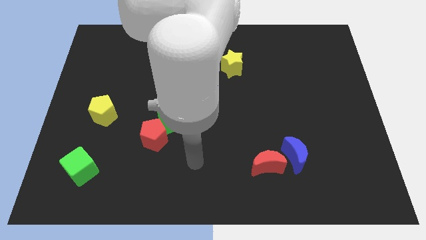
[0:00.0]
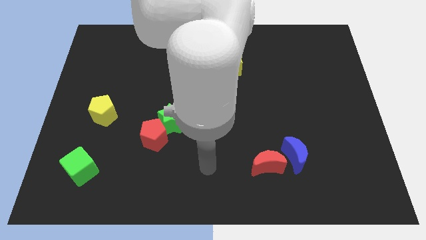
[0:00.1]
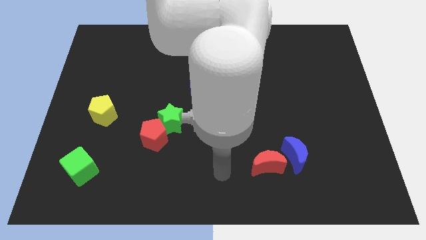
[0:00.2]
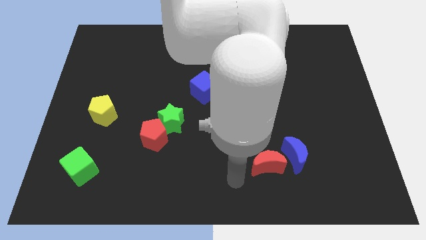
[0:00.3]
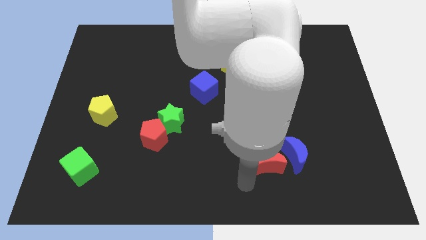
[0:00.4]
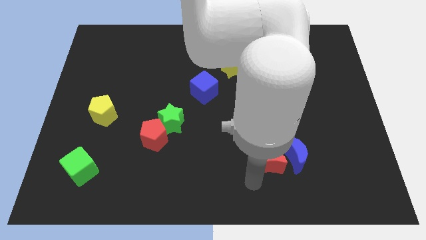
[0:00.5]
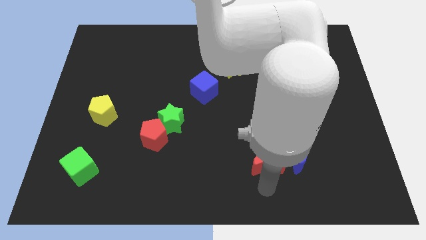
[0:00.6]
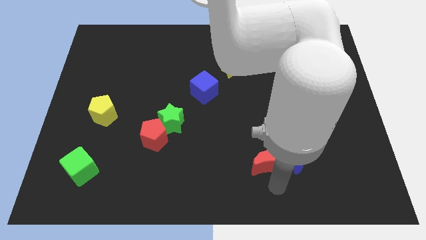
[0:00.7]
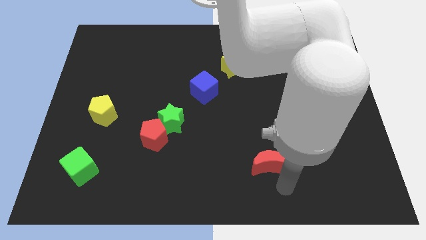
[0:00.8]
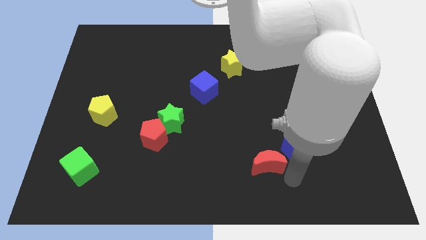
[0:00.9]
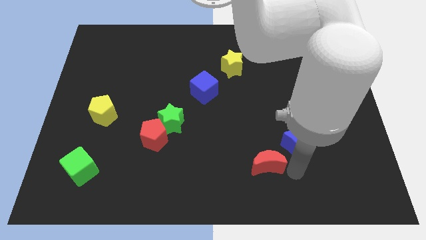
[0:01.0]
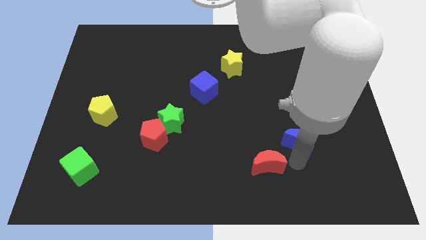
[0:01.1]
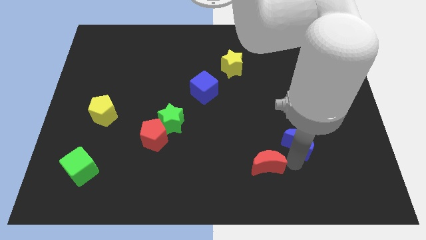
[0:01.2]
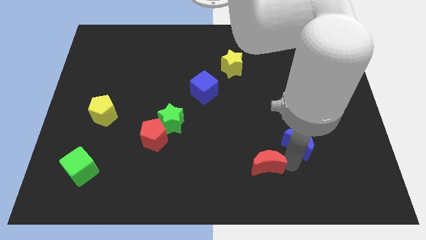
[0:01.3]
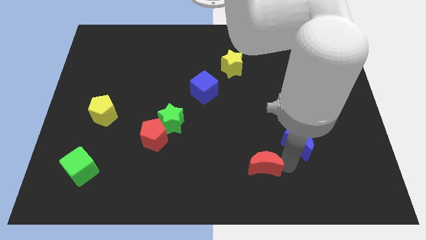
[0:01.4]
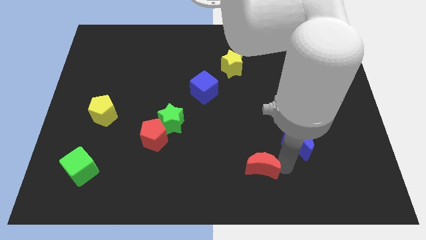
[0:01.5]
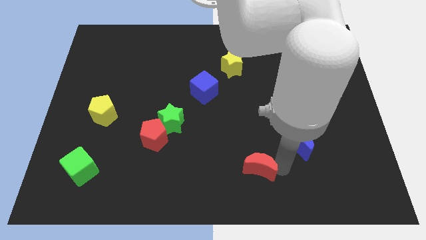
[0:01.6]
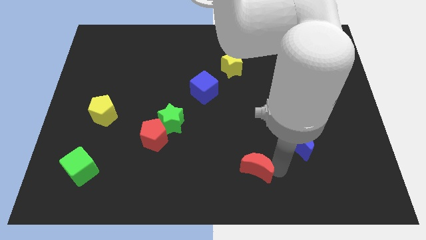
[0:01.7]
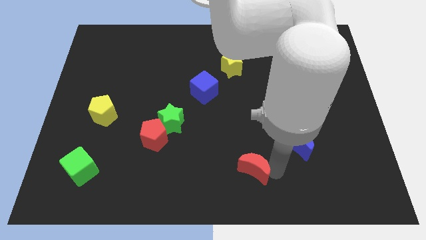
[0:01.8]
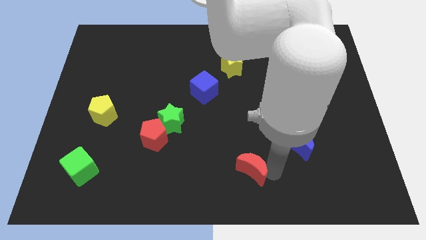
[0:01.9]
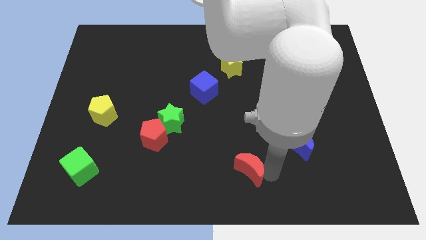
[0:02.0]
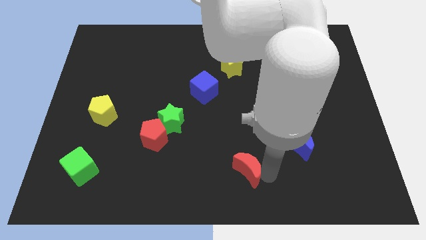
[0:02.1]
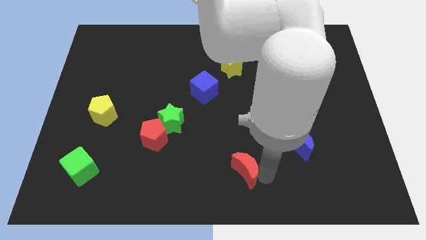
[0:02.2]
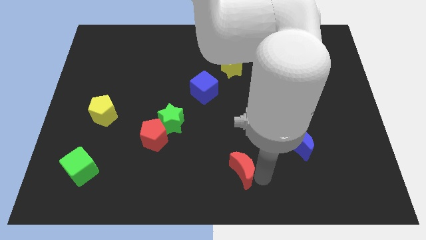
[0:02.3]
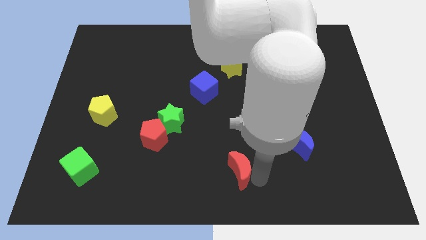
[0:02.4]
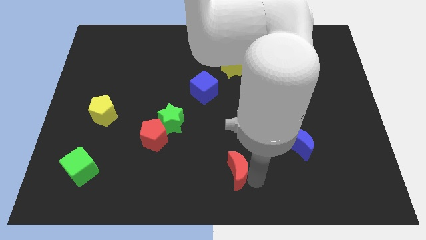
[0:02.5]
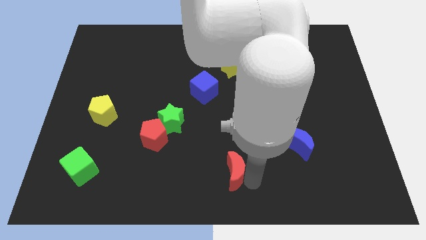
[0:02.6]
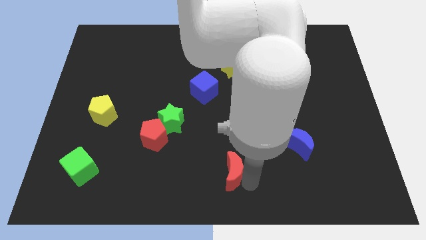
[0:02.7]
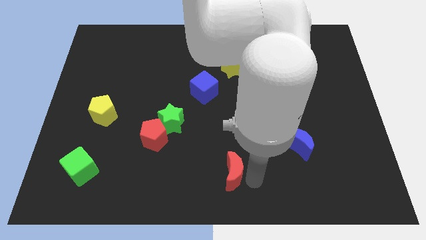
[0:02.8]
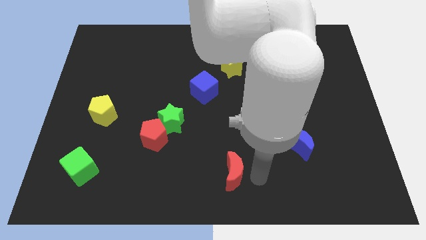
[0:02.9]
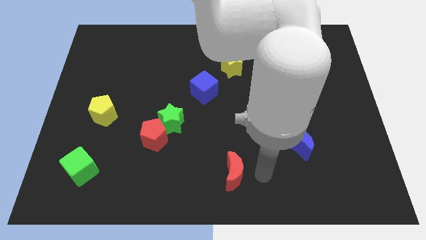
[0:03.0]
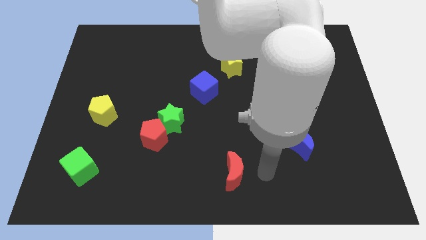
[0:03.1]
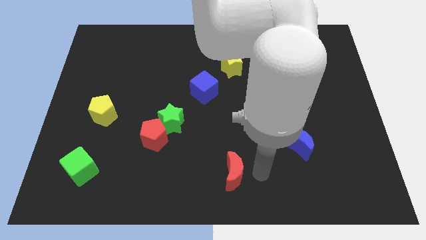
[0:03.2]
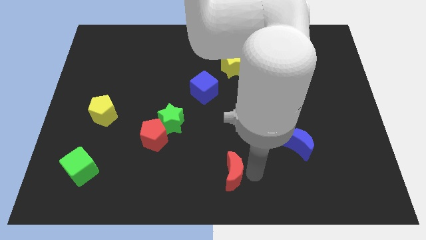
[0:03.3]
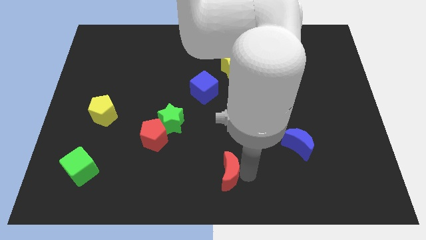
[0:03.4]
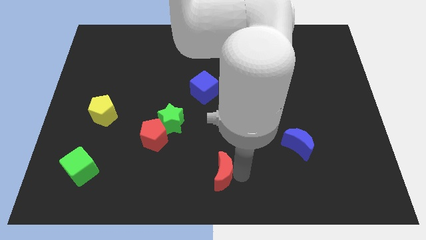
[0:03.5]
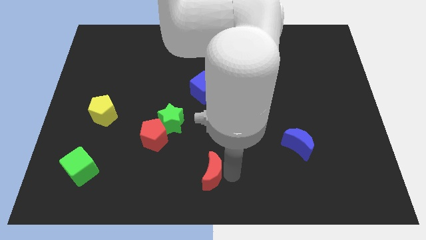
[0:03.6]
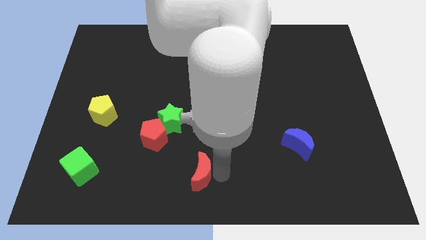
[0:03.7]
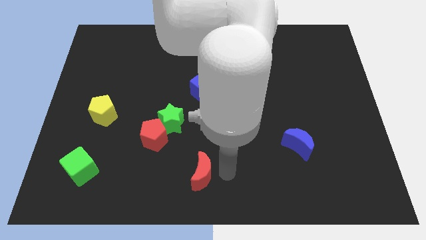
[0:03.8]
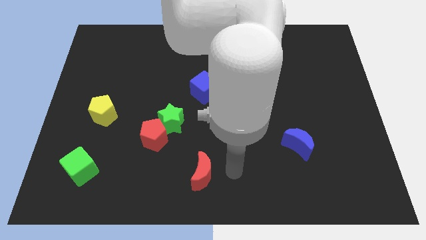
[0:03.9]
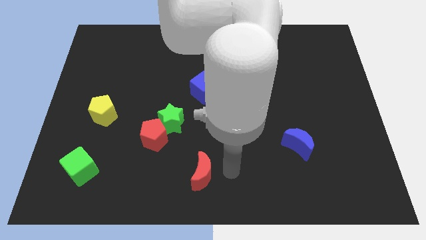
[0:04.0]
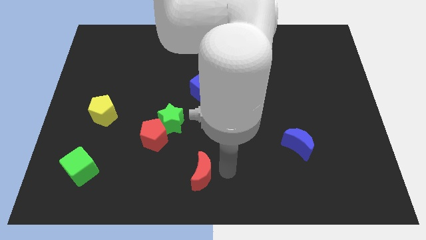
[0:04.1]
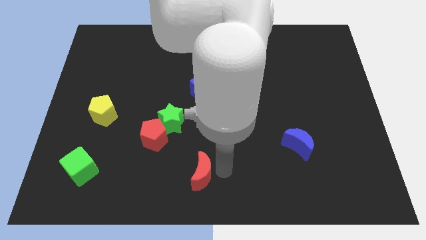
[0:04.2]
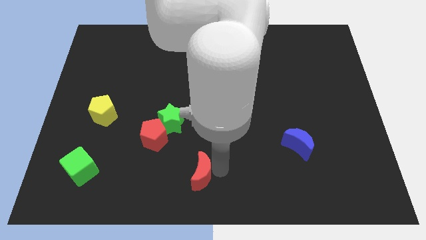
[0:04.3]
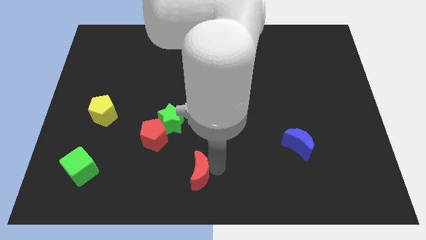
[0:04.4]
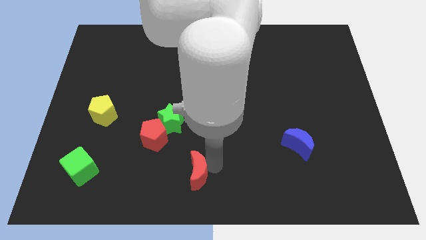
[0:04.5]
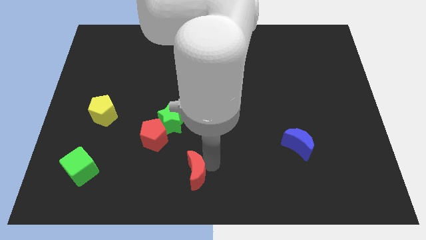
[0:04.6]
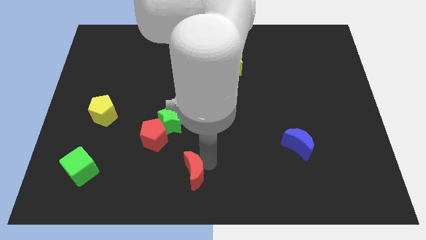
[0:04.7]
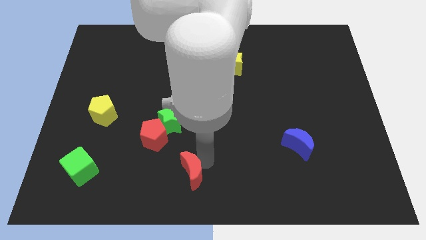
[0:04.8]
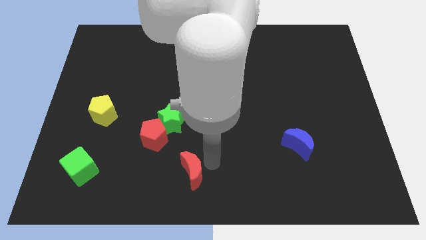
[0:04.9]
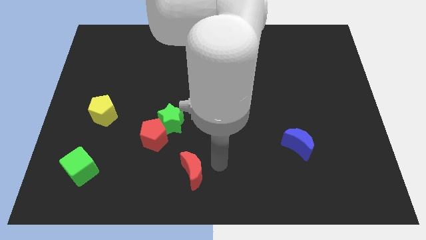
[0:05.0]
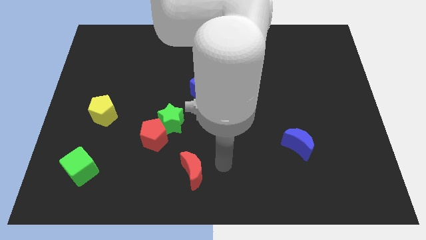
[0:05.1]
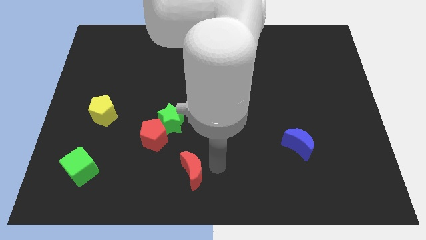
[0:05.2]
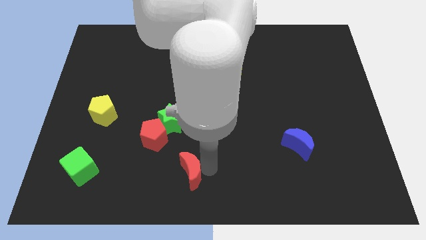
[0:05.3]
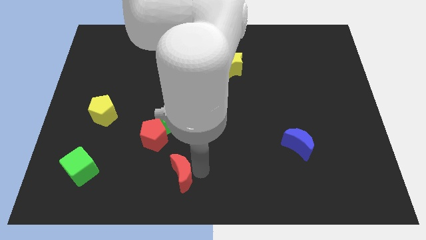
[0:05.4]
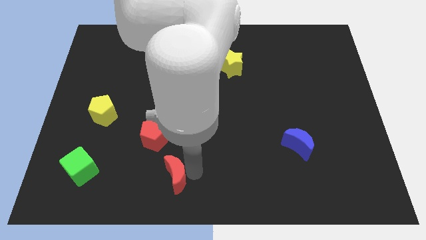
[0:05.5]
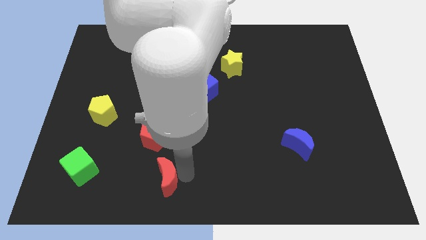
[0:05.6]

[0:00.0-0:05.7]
push the red moon to the bottom side of the red pentagon

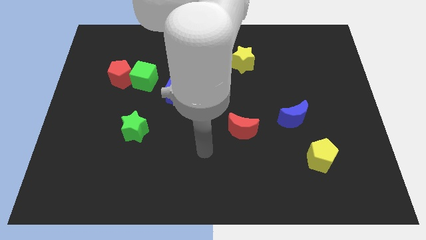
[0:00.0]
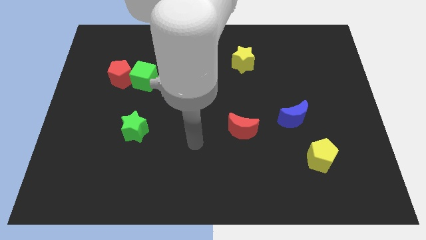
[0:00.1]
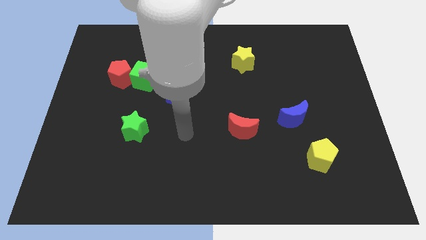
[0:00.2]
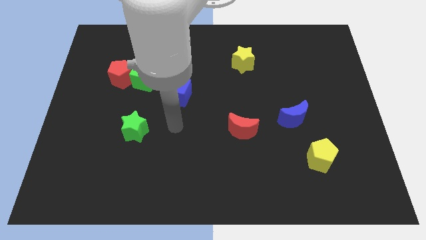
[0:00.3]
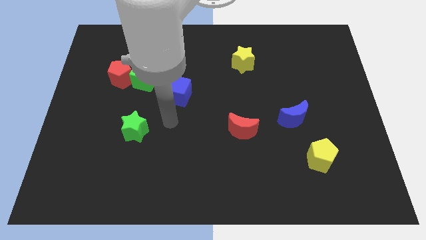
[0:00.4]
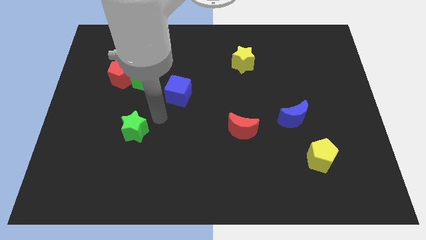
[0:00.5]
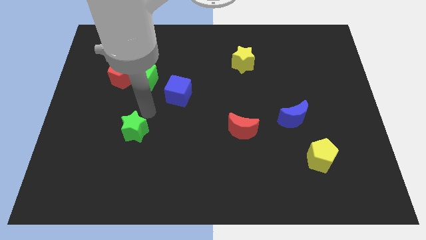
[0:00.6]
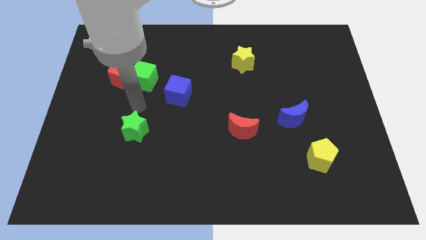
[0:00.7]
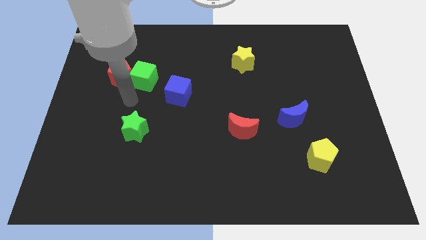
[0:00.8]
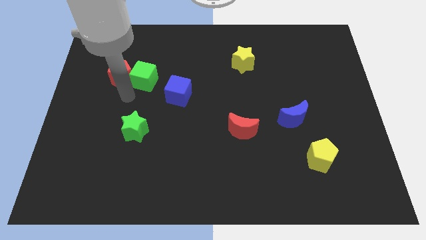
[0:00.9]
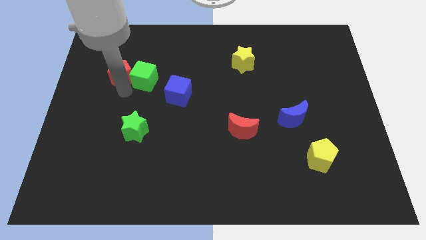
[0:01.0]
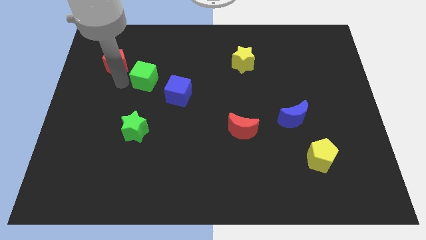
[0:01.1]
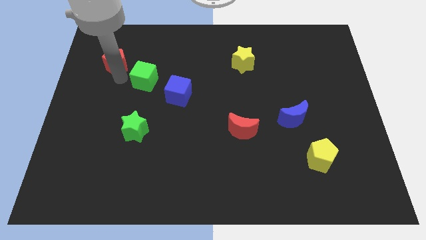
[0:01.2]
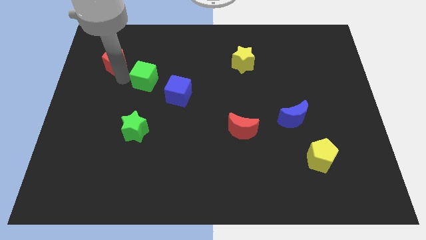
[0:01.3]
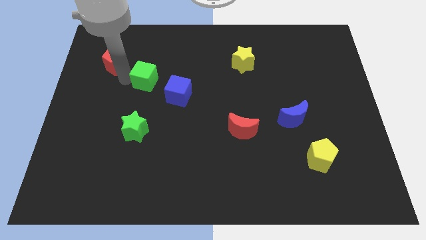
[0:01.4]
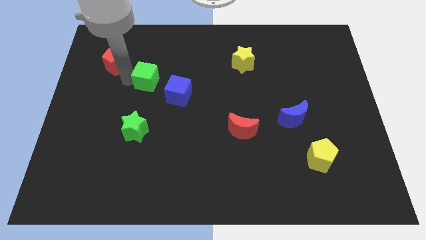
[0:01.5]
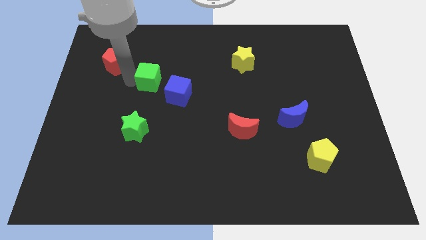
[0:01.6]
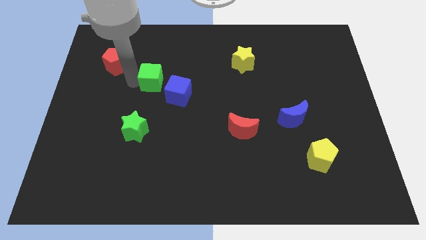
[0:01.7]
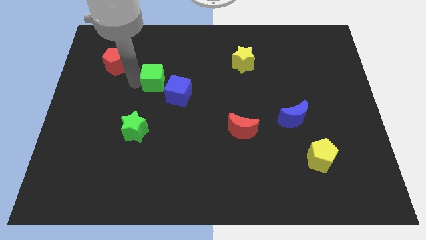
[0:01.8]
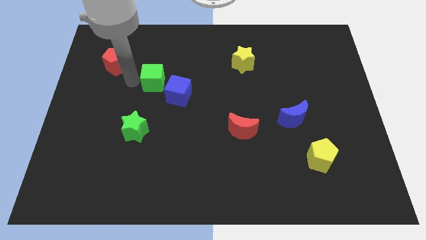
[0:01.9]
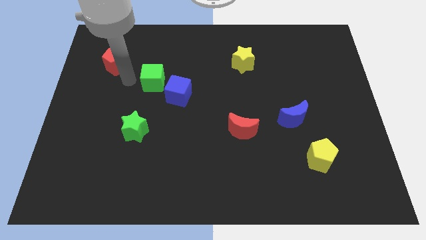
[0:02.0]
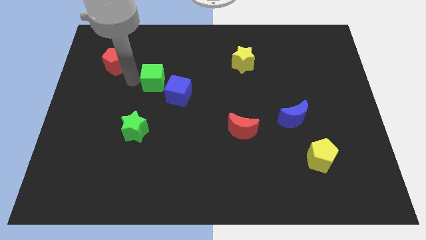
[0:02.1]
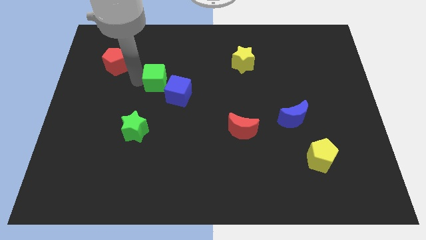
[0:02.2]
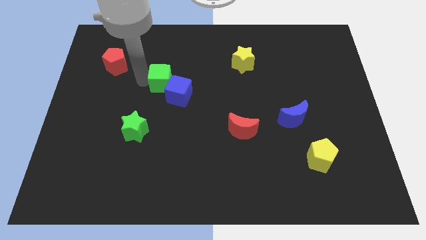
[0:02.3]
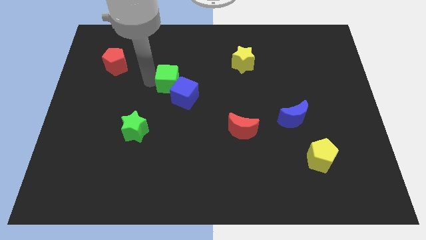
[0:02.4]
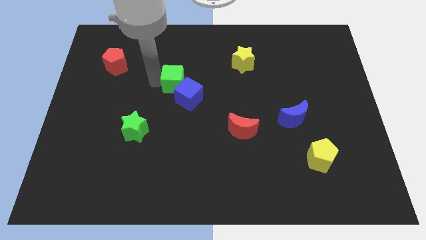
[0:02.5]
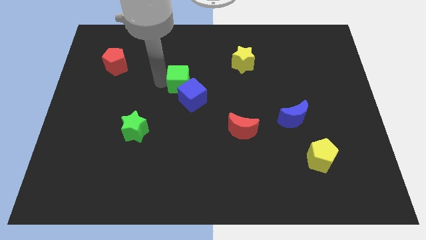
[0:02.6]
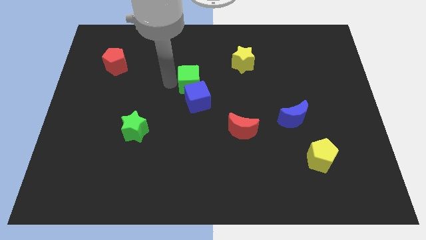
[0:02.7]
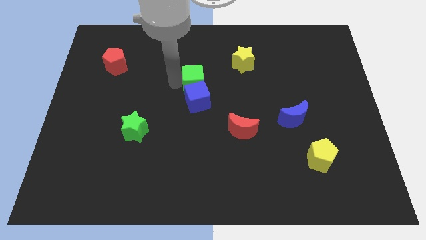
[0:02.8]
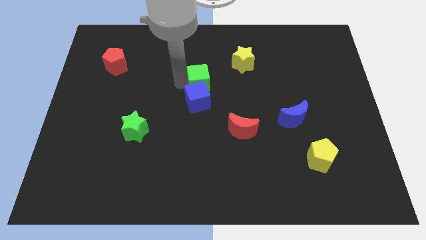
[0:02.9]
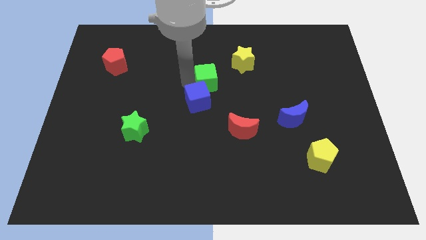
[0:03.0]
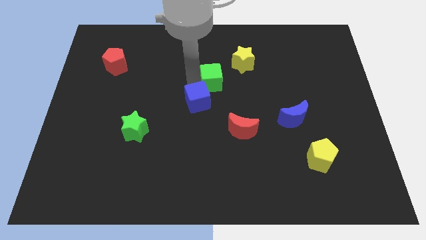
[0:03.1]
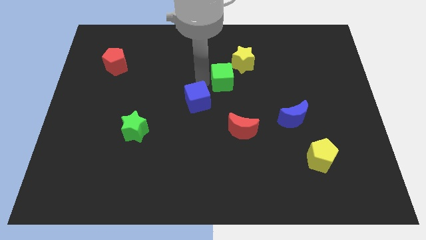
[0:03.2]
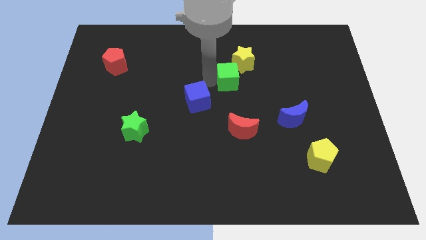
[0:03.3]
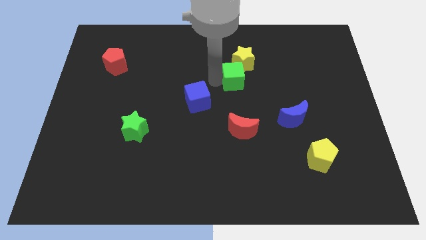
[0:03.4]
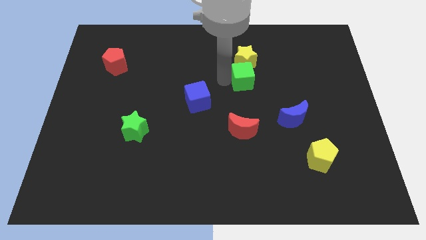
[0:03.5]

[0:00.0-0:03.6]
move the green cube to the bottom right side of the yellow star
